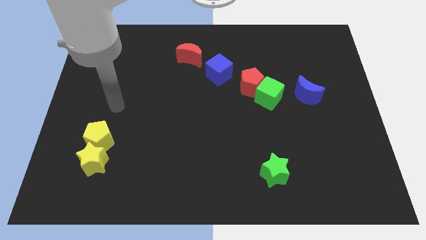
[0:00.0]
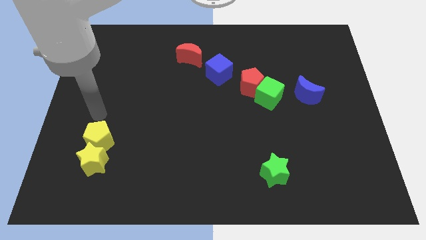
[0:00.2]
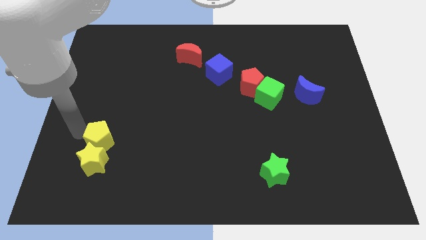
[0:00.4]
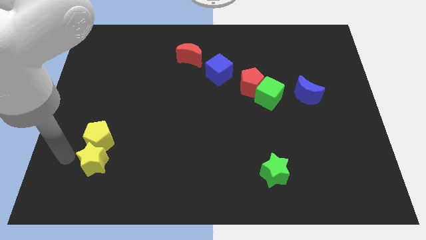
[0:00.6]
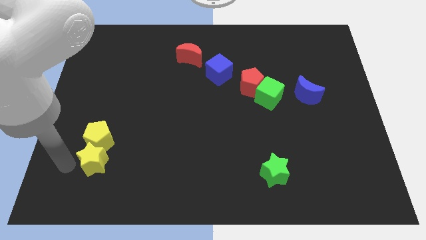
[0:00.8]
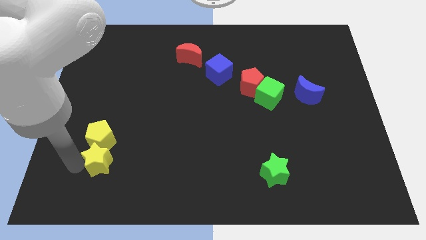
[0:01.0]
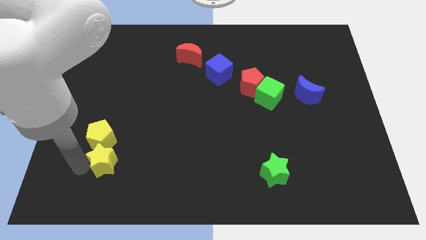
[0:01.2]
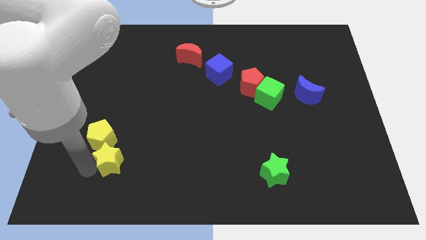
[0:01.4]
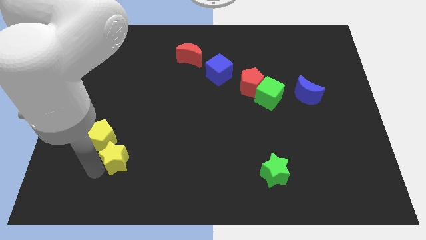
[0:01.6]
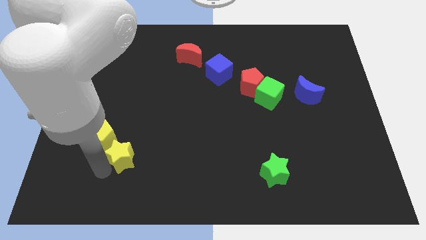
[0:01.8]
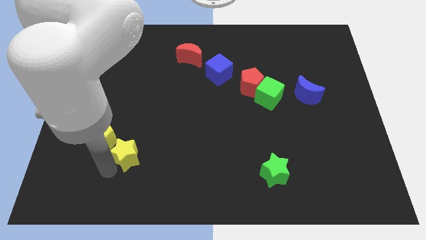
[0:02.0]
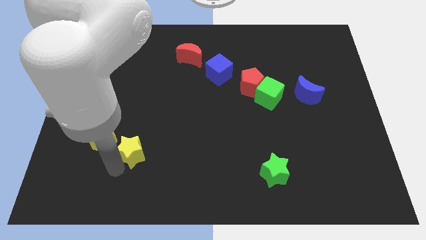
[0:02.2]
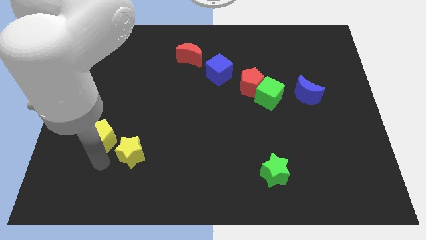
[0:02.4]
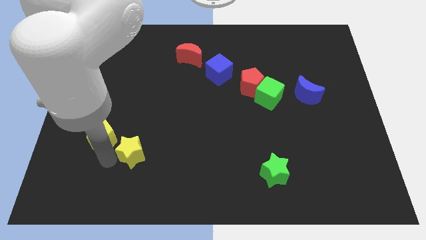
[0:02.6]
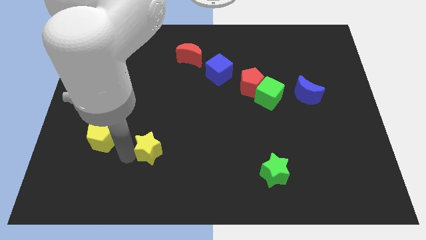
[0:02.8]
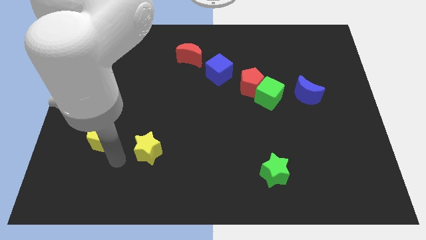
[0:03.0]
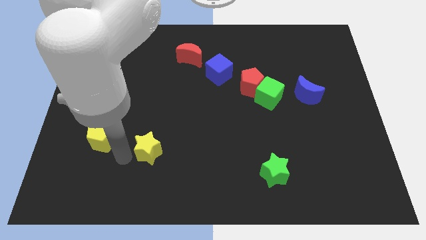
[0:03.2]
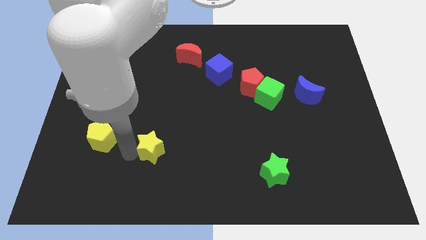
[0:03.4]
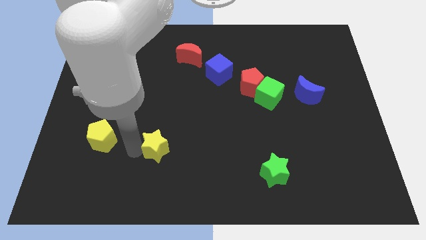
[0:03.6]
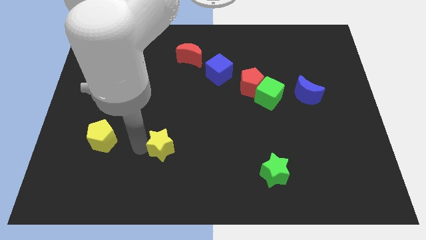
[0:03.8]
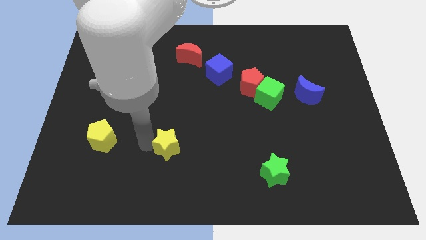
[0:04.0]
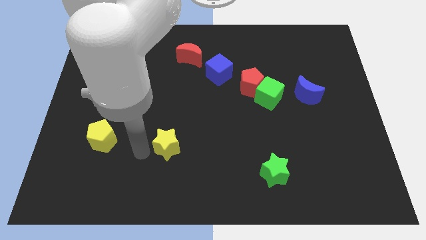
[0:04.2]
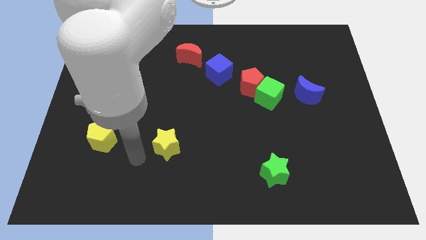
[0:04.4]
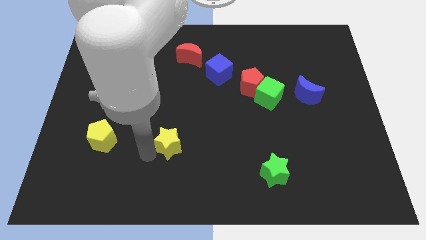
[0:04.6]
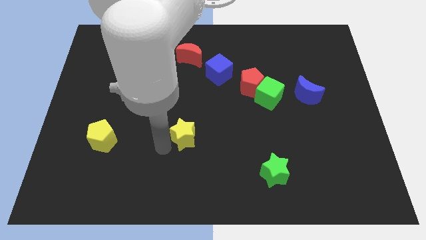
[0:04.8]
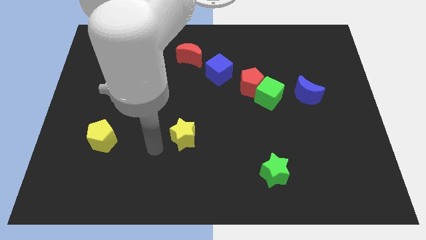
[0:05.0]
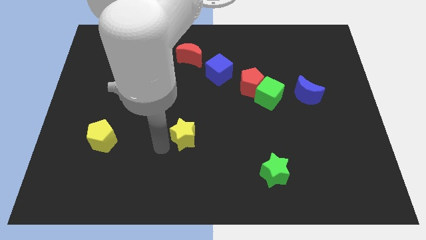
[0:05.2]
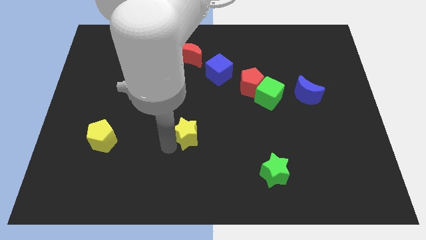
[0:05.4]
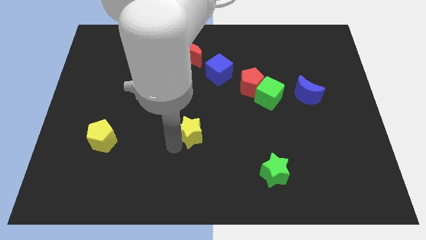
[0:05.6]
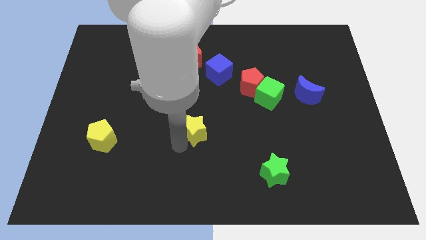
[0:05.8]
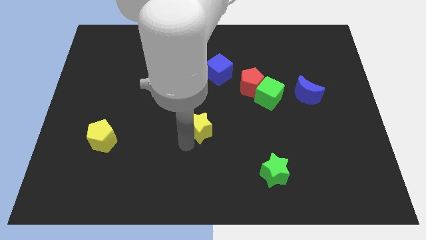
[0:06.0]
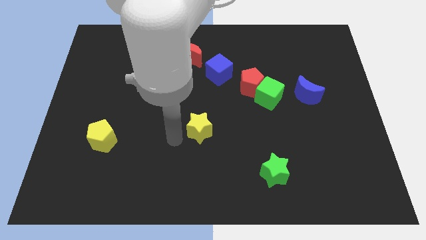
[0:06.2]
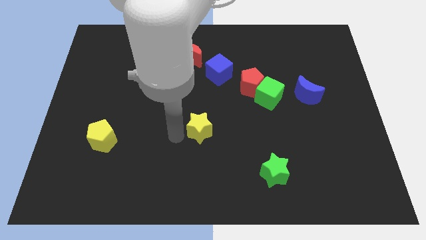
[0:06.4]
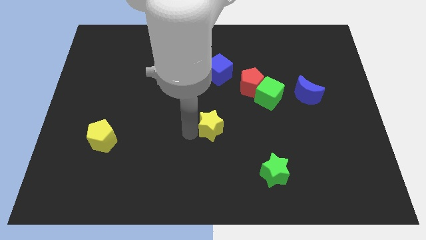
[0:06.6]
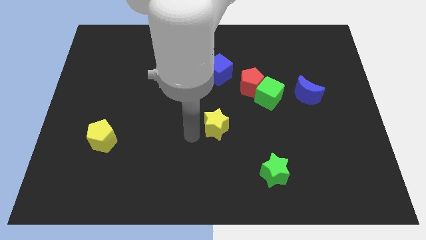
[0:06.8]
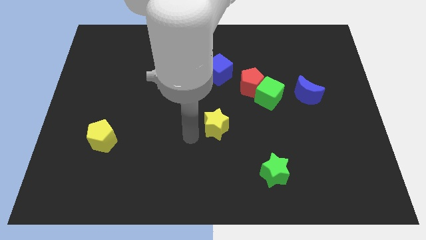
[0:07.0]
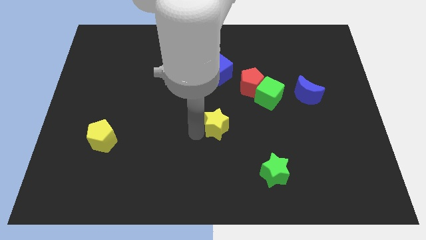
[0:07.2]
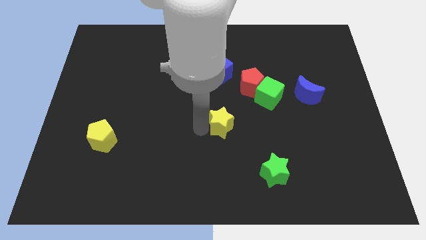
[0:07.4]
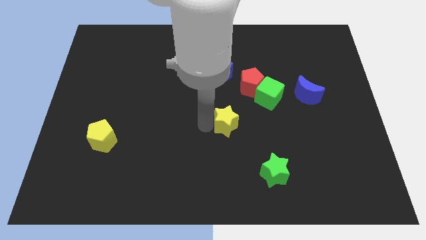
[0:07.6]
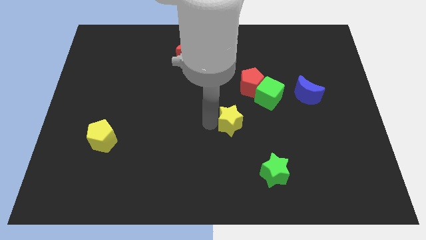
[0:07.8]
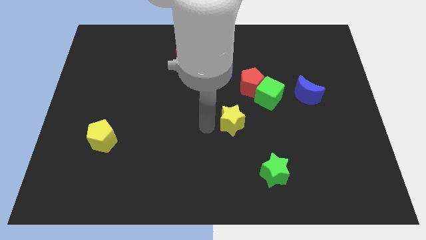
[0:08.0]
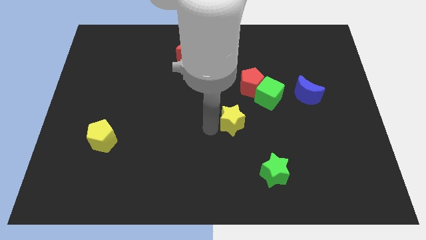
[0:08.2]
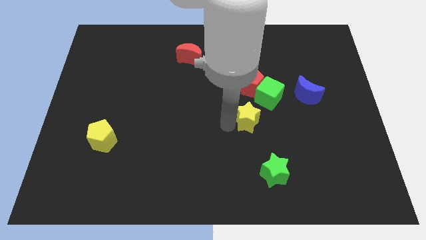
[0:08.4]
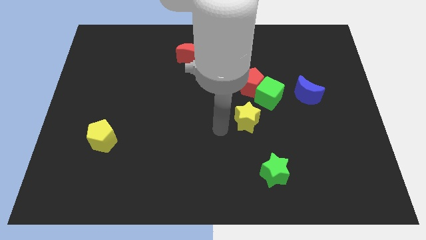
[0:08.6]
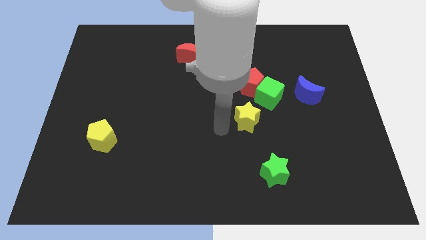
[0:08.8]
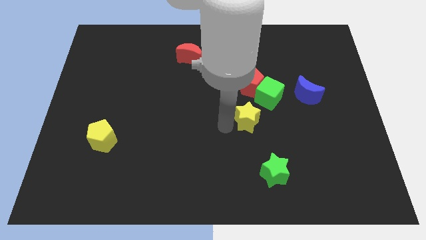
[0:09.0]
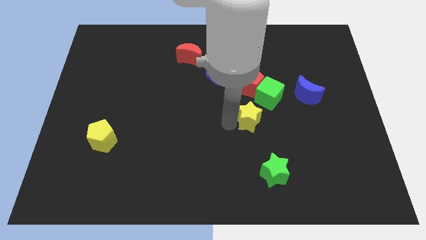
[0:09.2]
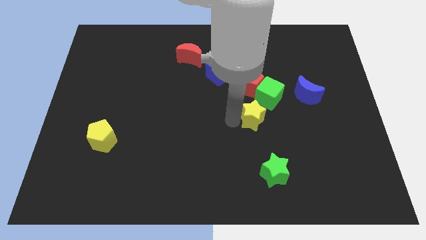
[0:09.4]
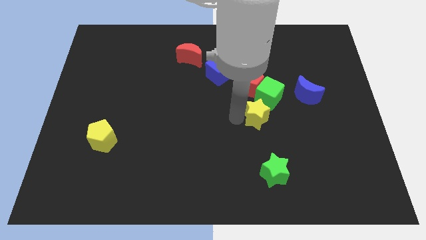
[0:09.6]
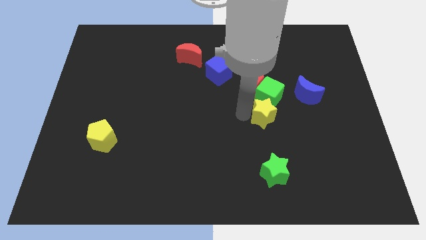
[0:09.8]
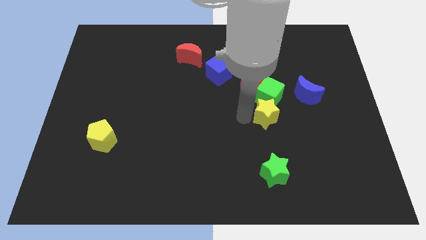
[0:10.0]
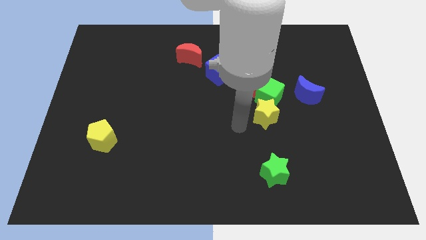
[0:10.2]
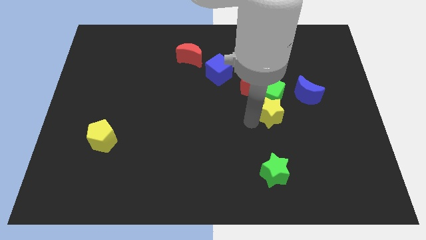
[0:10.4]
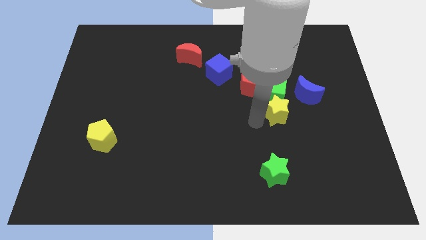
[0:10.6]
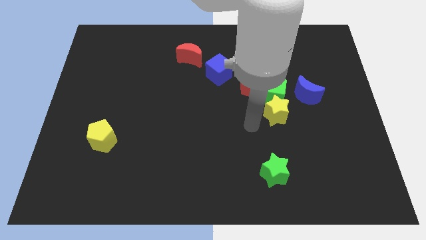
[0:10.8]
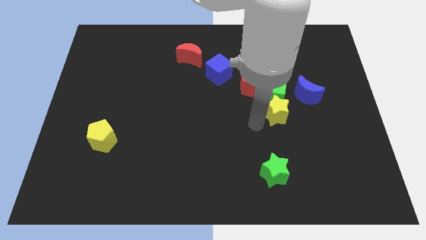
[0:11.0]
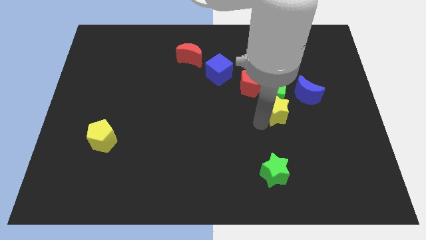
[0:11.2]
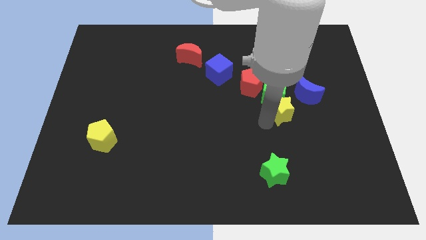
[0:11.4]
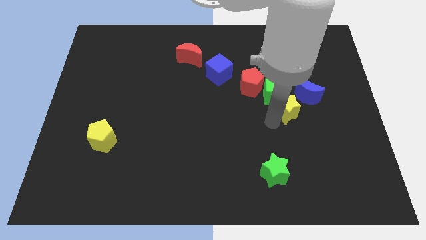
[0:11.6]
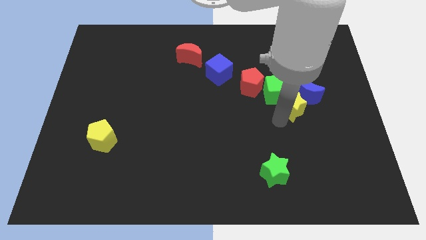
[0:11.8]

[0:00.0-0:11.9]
put the yellow star towards the blue moon

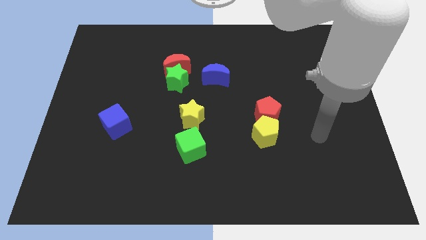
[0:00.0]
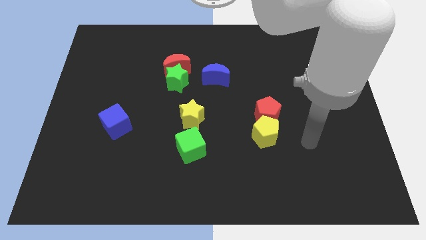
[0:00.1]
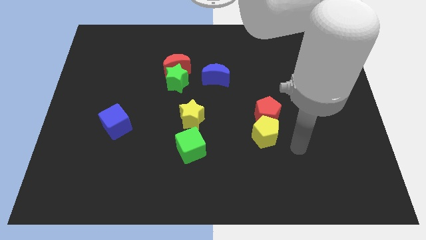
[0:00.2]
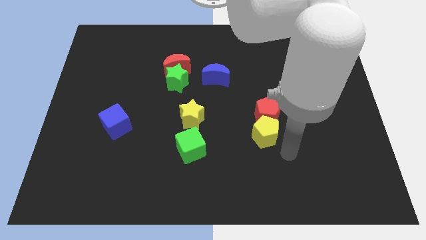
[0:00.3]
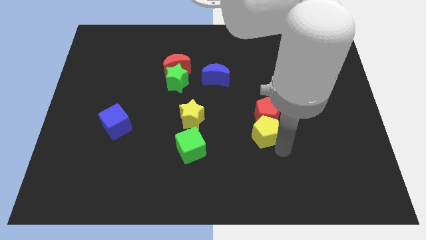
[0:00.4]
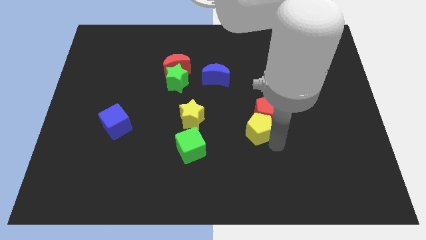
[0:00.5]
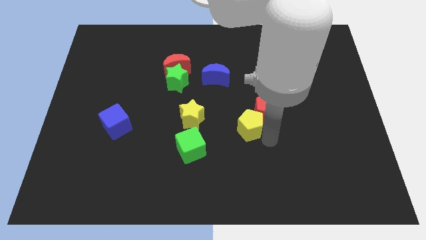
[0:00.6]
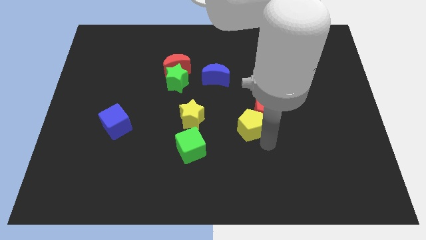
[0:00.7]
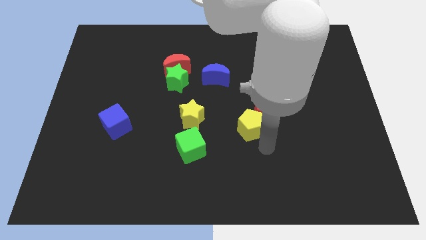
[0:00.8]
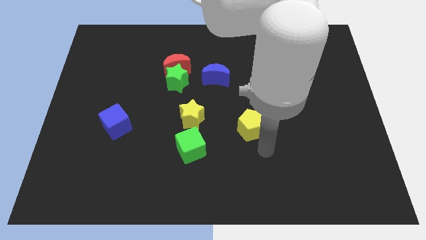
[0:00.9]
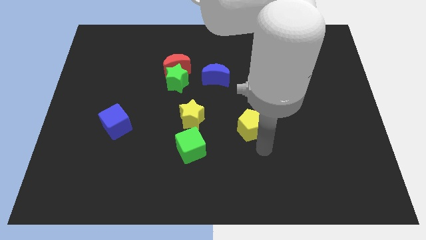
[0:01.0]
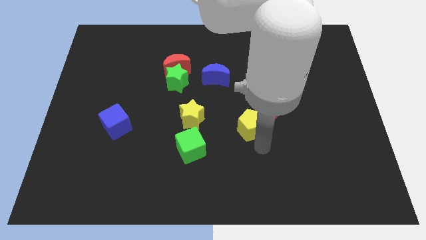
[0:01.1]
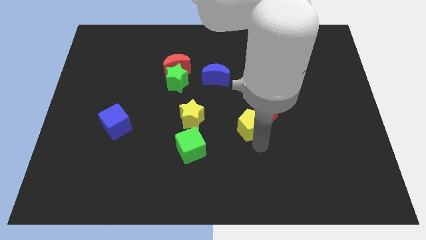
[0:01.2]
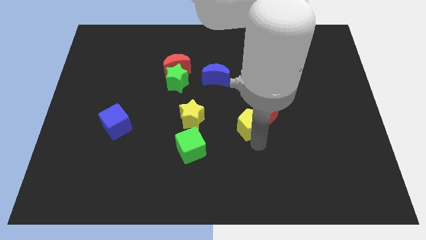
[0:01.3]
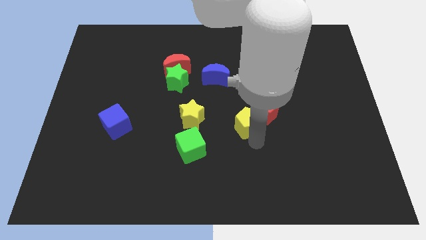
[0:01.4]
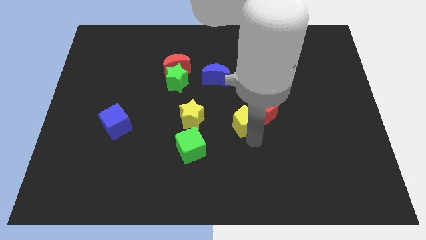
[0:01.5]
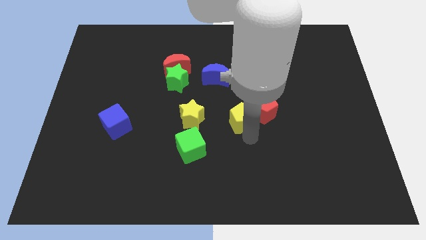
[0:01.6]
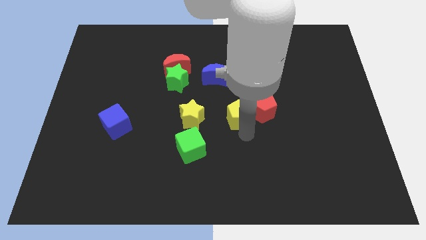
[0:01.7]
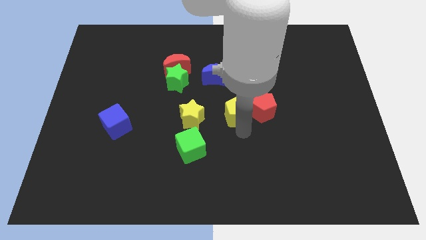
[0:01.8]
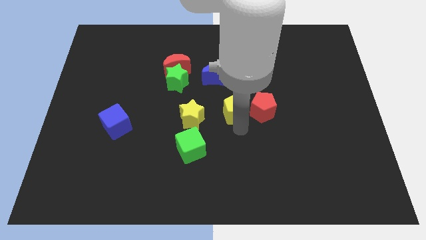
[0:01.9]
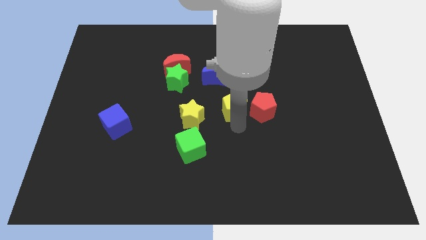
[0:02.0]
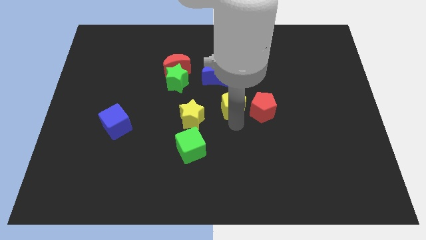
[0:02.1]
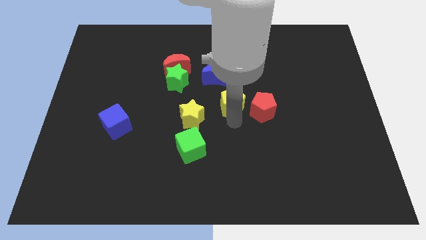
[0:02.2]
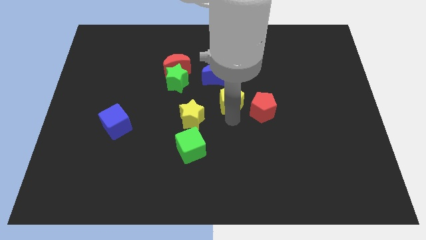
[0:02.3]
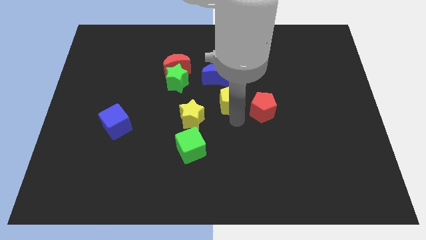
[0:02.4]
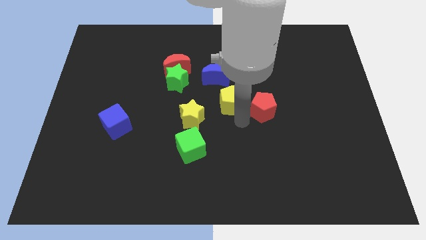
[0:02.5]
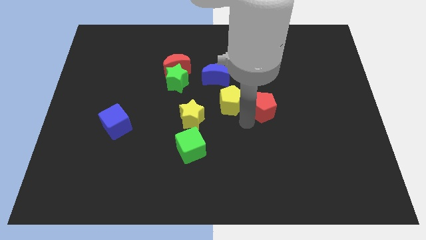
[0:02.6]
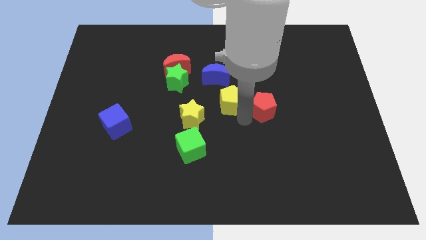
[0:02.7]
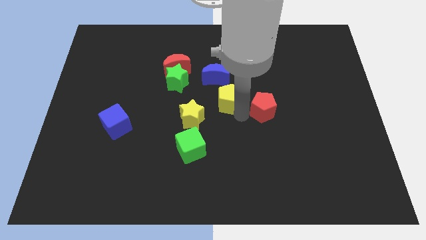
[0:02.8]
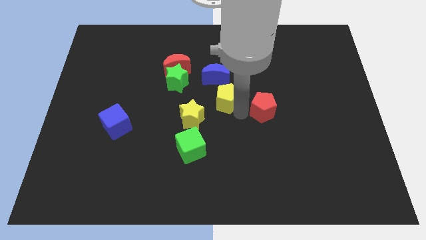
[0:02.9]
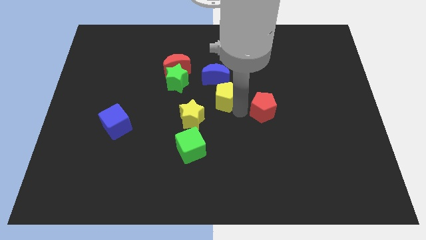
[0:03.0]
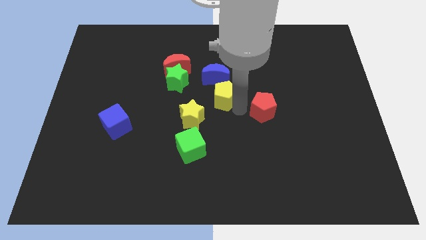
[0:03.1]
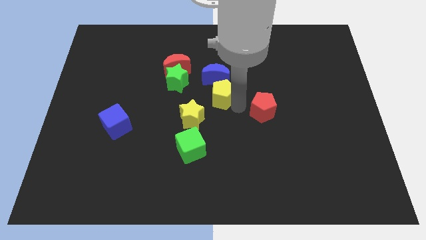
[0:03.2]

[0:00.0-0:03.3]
slide the yellow pentagon towards the blue moon
